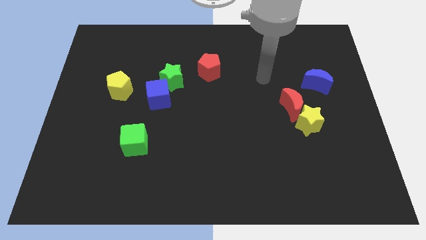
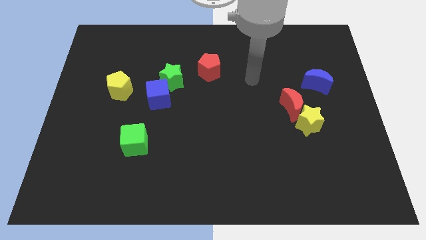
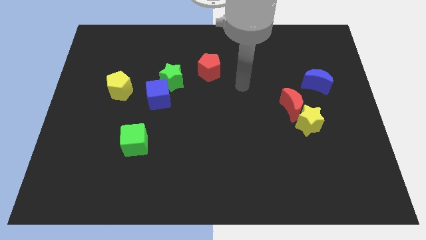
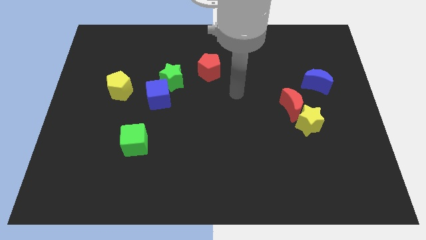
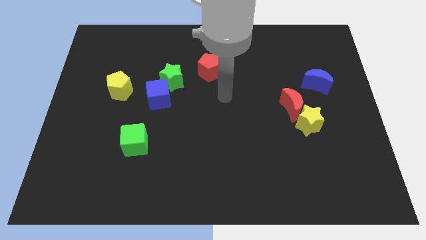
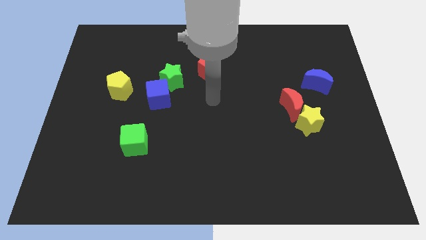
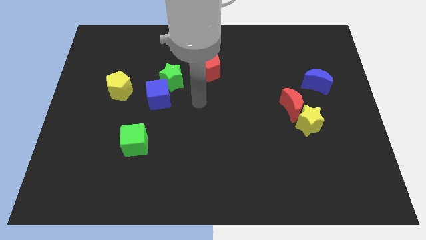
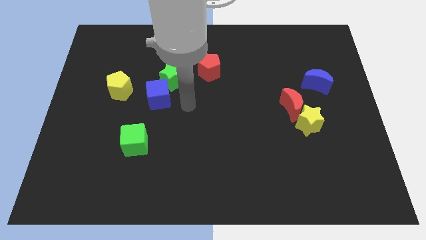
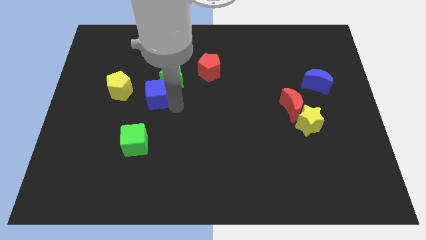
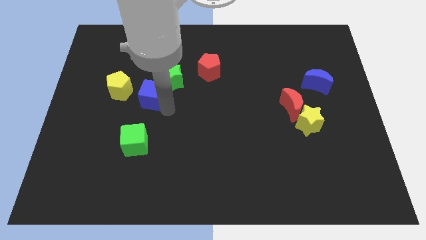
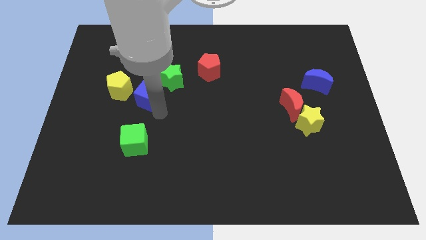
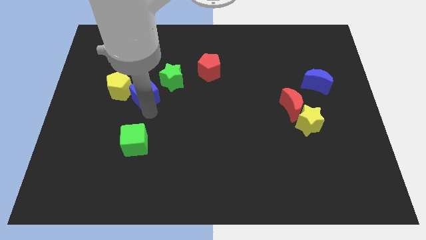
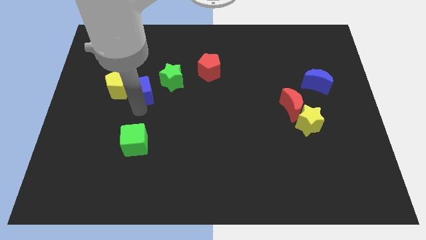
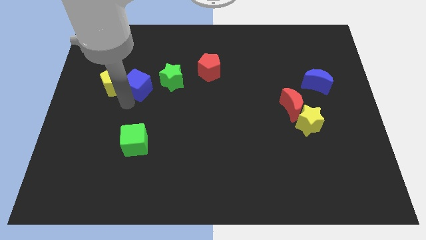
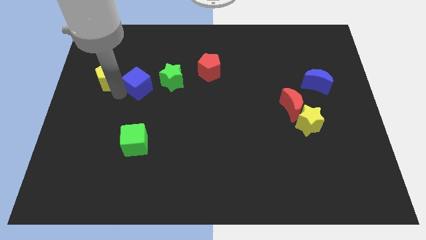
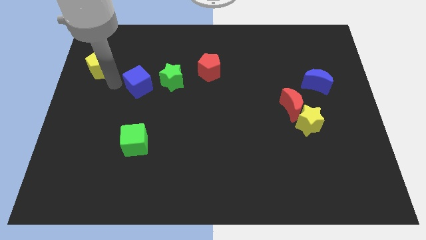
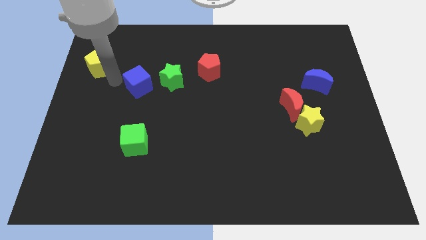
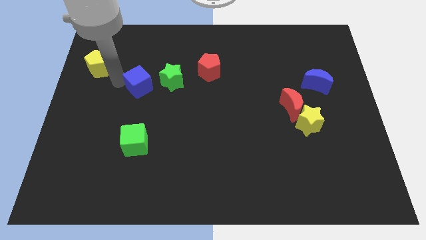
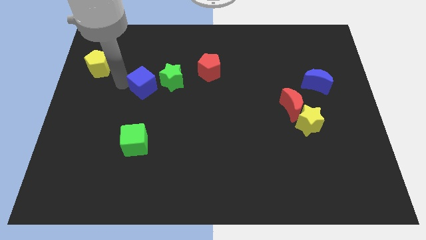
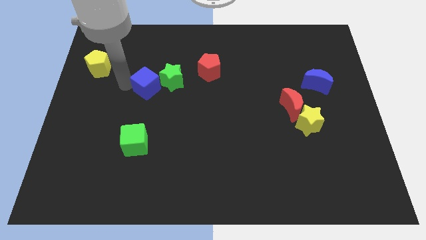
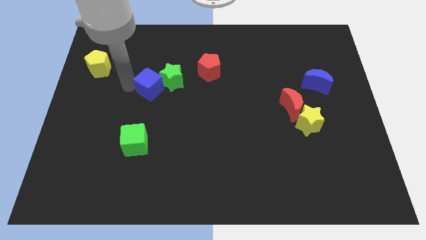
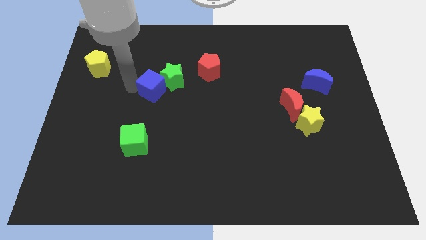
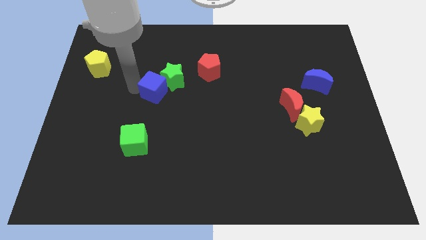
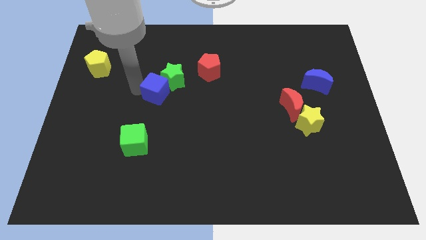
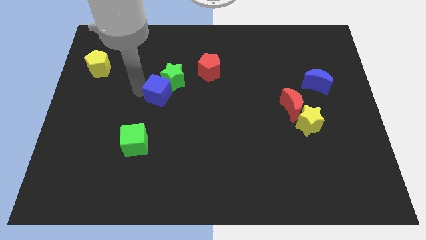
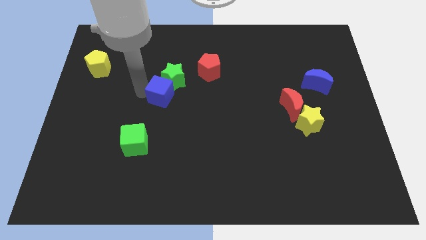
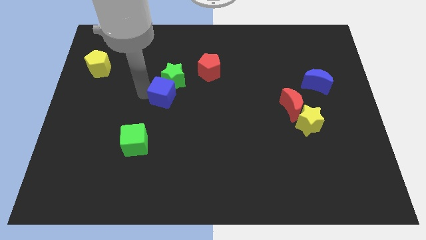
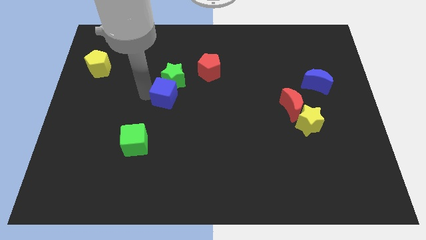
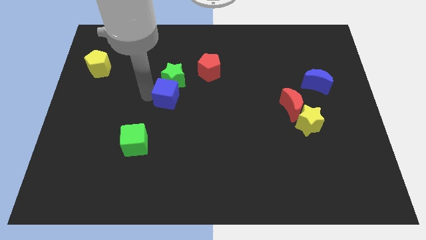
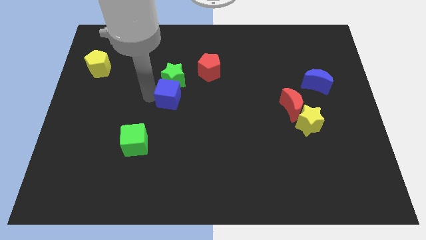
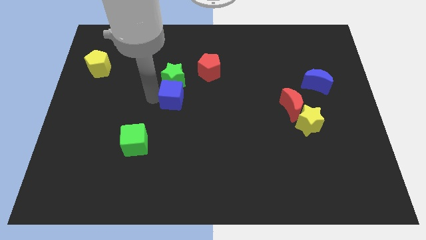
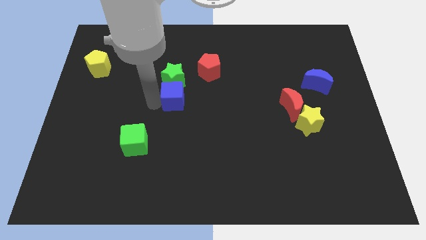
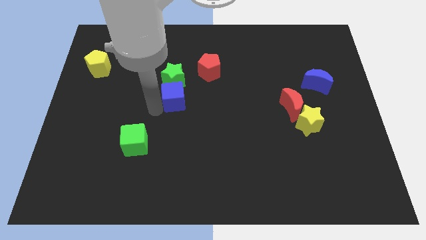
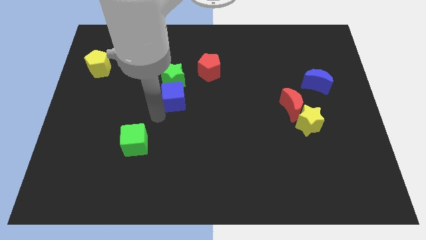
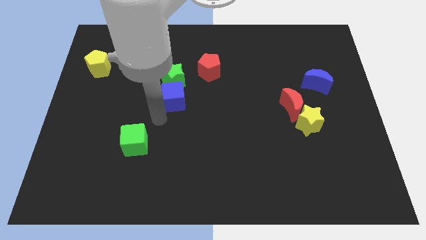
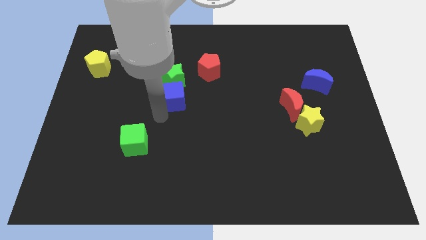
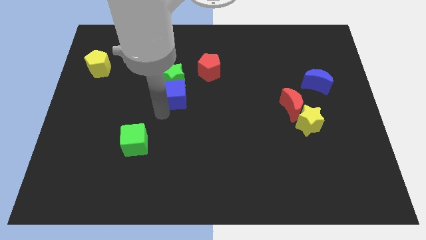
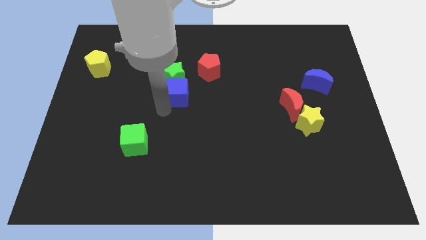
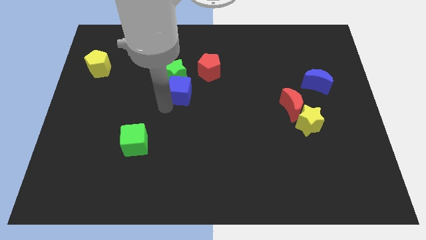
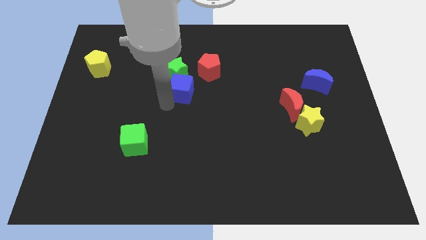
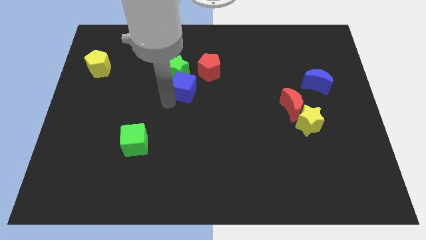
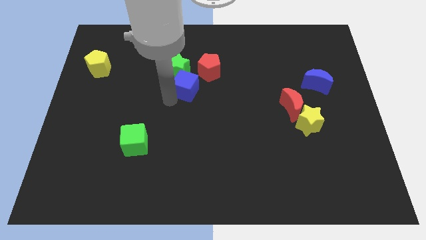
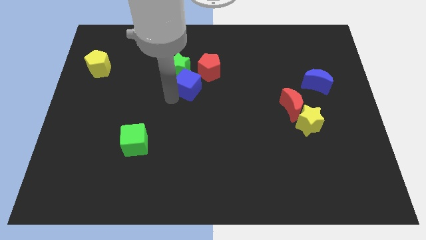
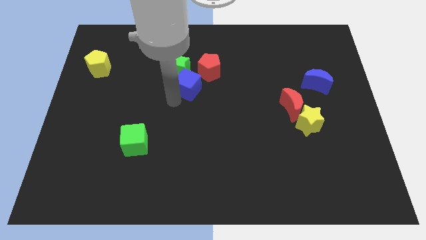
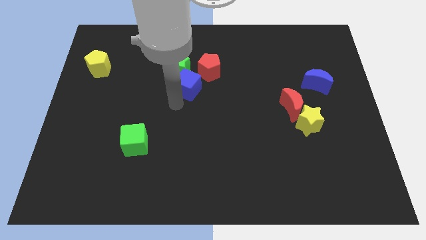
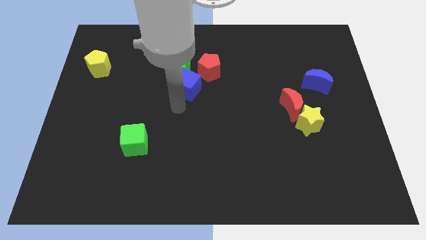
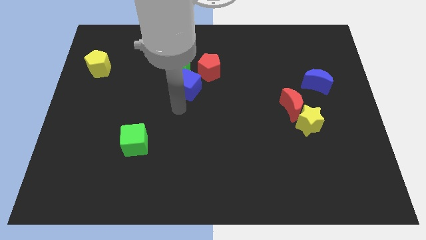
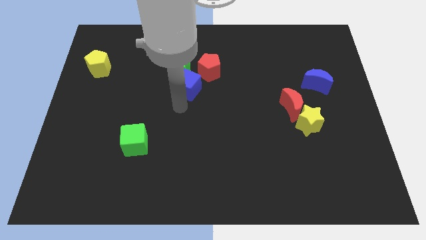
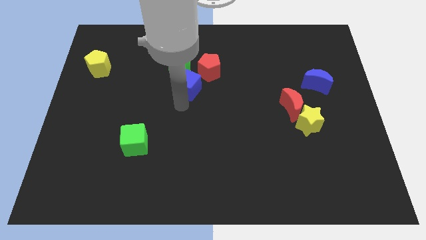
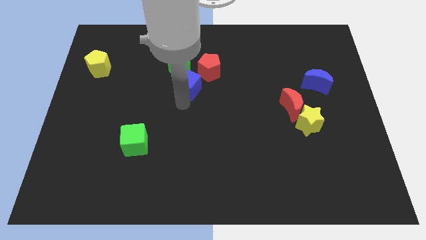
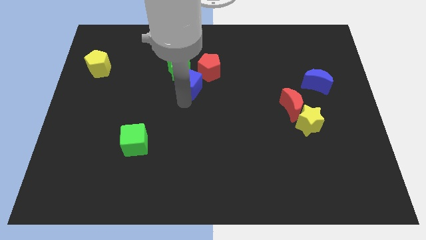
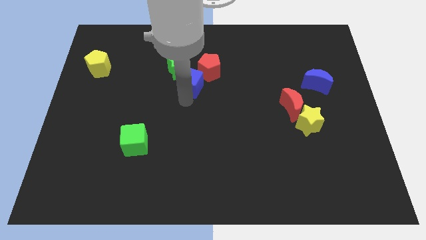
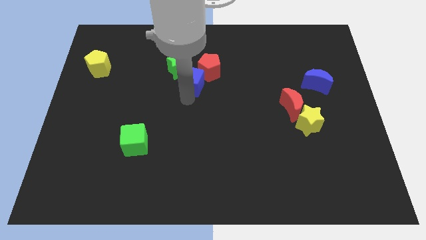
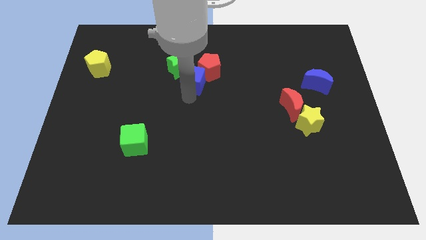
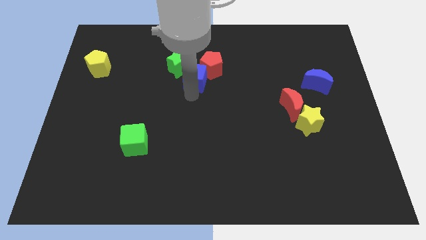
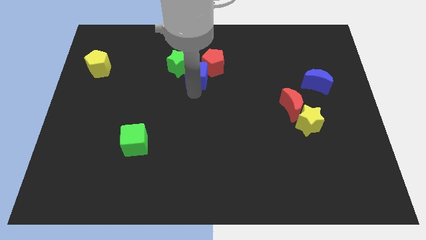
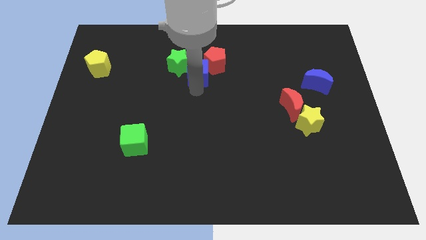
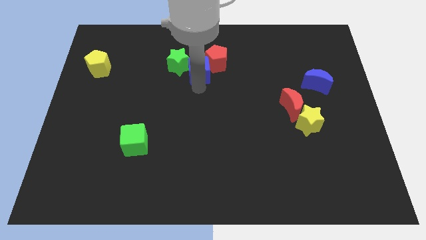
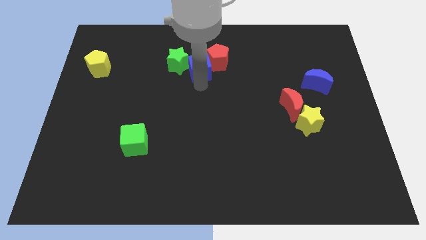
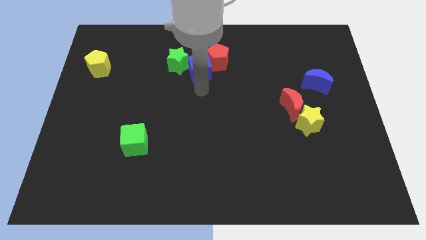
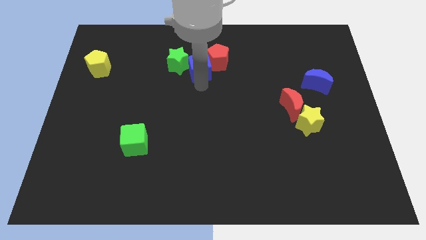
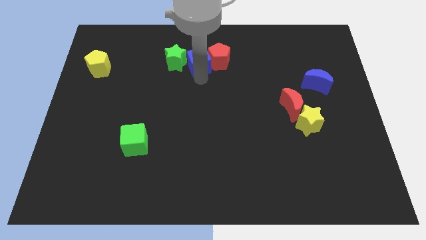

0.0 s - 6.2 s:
move the blue cube diagonally up and to the left of the red pentagon

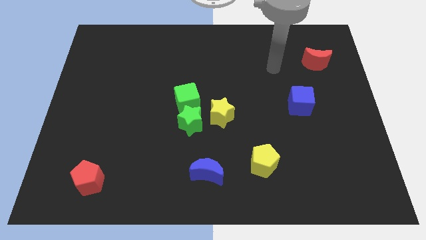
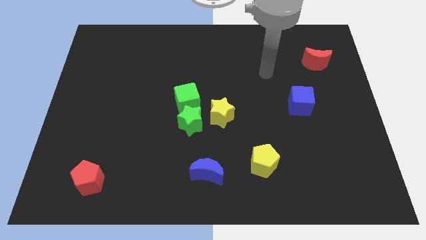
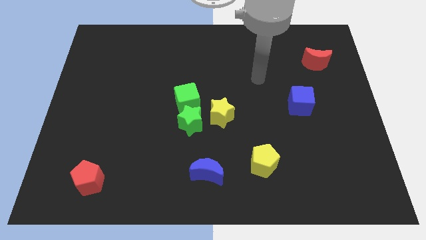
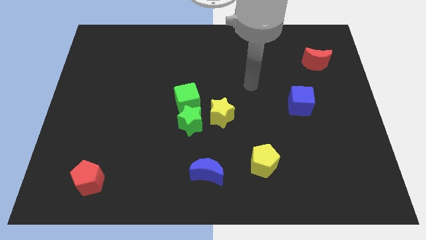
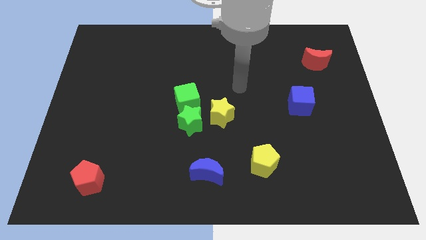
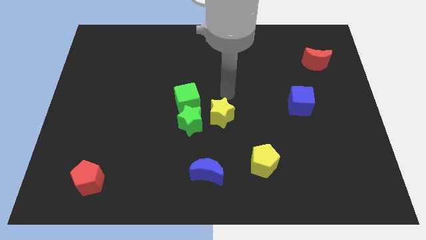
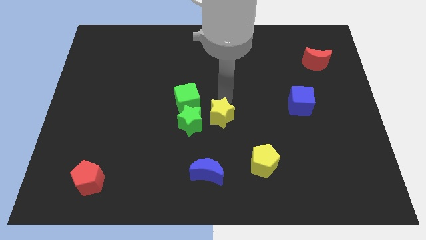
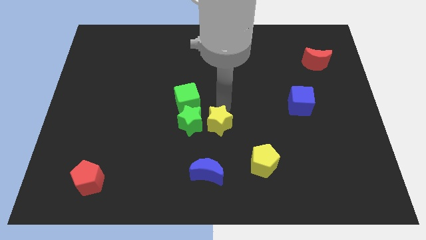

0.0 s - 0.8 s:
put the yellow star to the bottom right side of the green star
